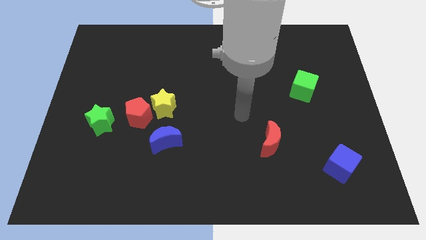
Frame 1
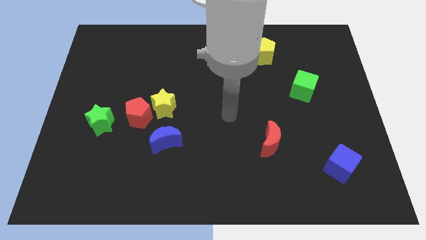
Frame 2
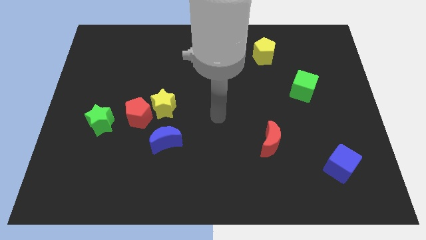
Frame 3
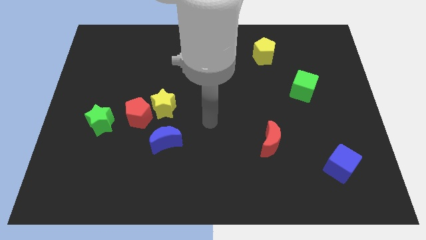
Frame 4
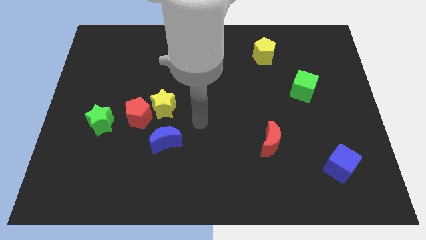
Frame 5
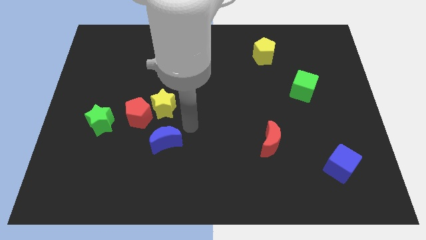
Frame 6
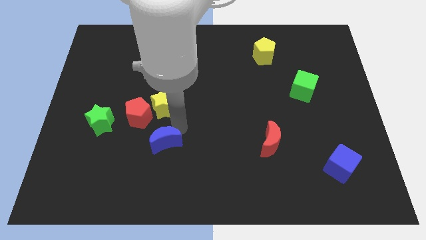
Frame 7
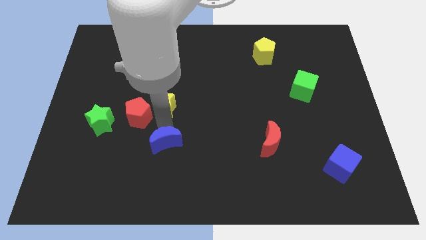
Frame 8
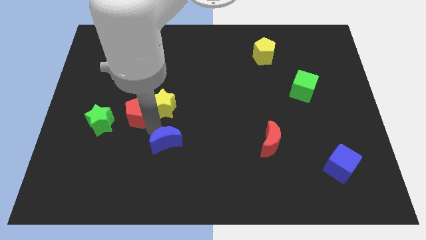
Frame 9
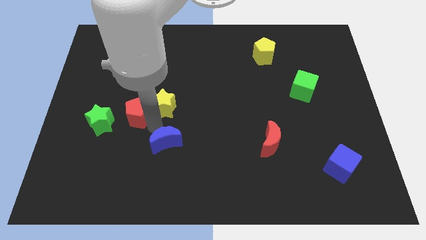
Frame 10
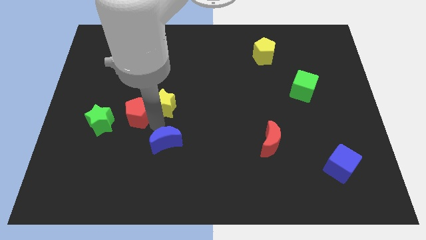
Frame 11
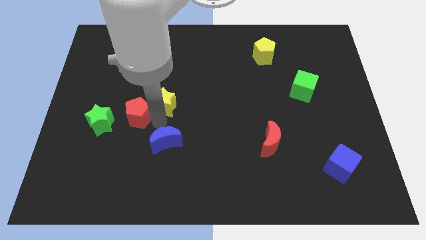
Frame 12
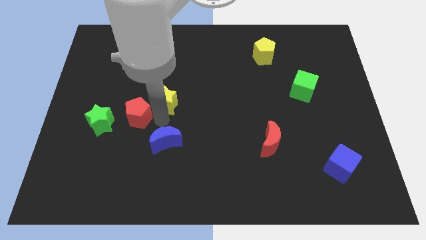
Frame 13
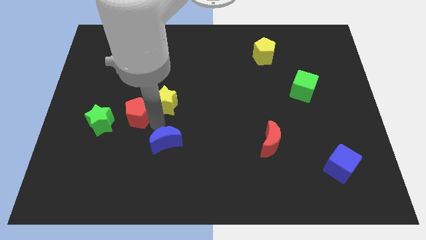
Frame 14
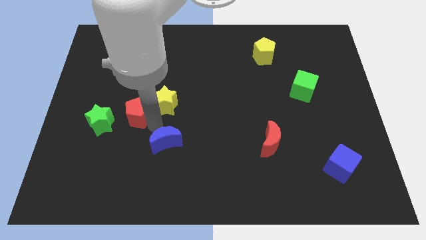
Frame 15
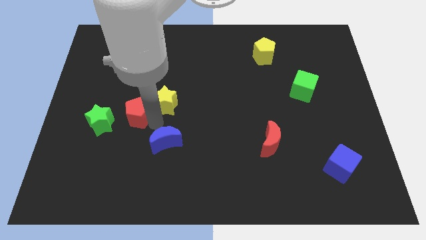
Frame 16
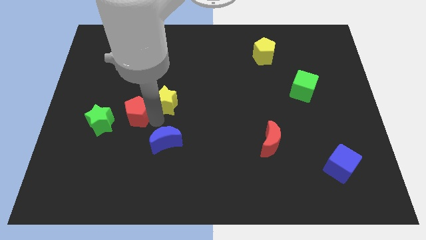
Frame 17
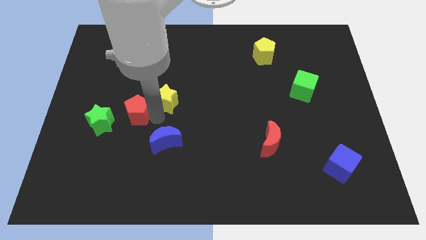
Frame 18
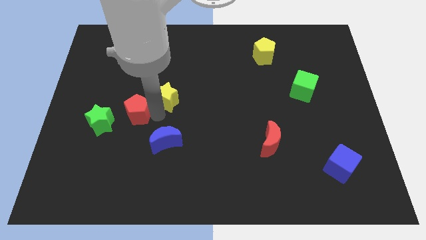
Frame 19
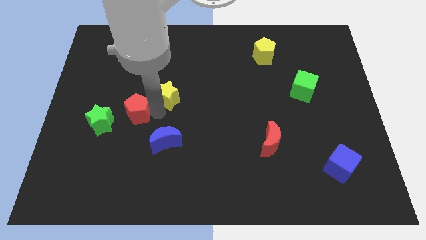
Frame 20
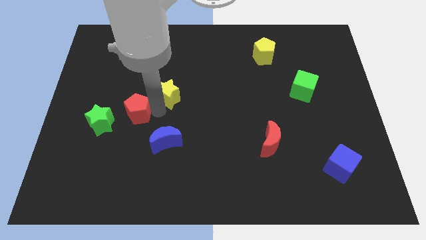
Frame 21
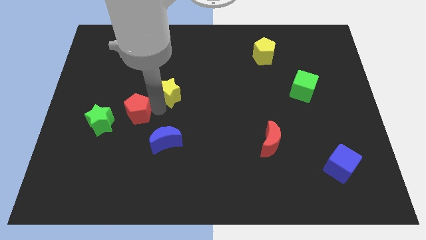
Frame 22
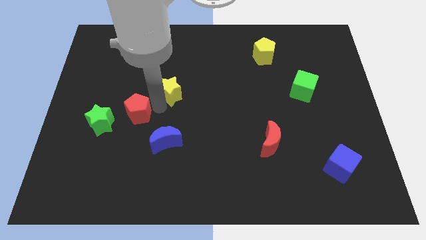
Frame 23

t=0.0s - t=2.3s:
move the yellow star away from the red pentagon and blue moon

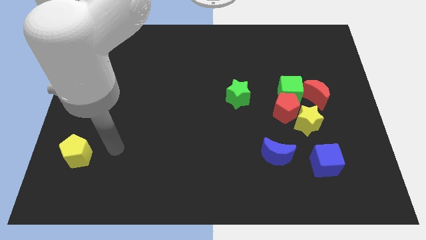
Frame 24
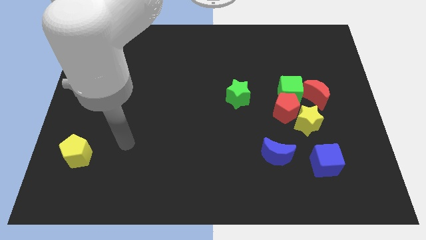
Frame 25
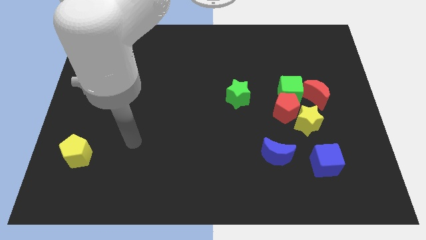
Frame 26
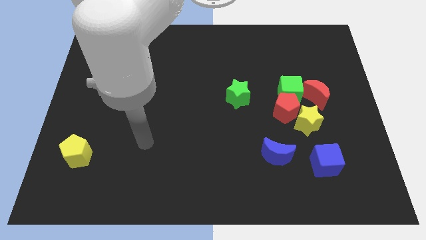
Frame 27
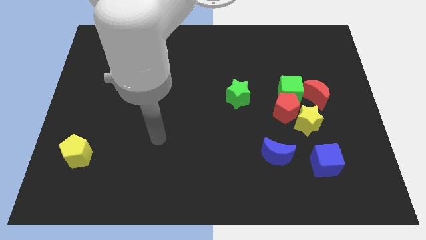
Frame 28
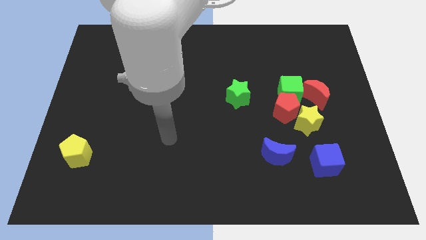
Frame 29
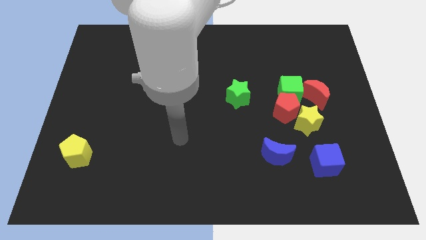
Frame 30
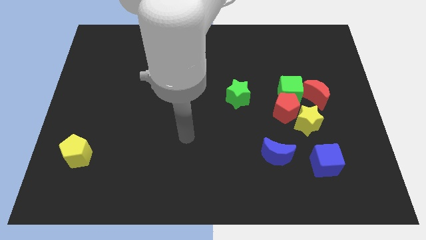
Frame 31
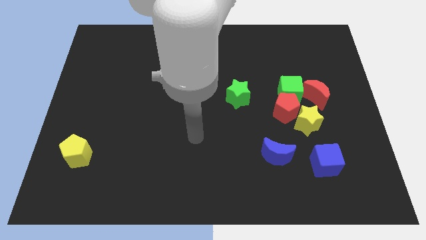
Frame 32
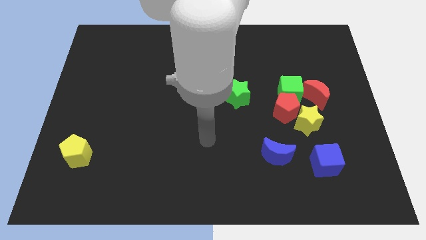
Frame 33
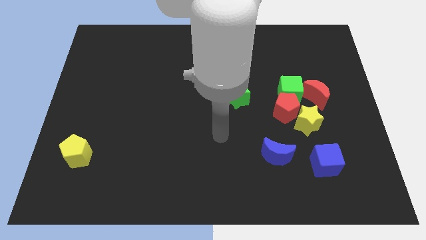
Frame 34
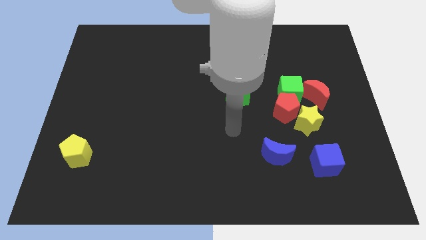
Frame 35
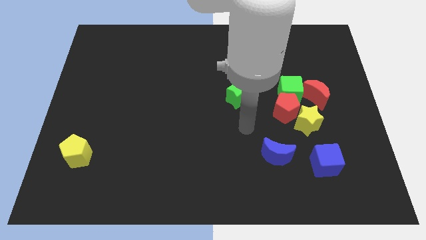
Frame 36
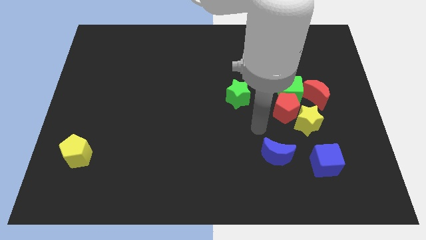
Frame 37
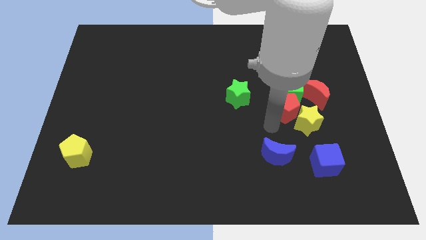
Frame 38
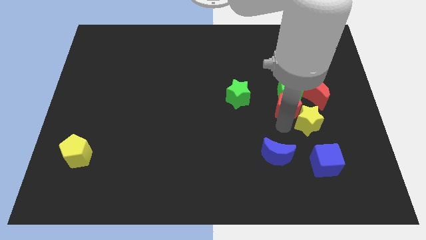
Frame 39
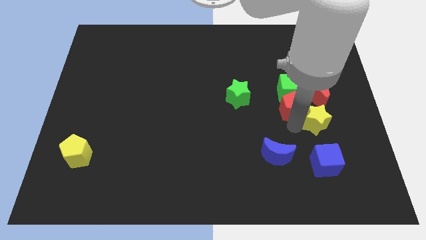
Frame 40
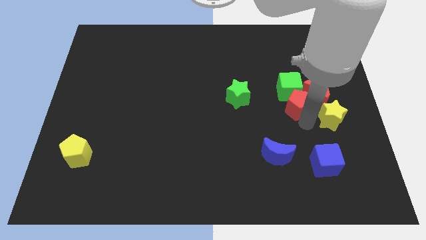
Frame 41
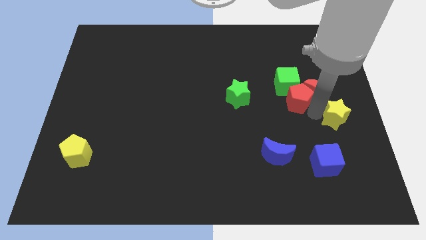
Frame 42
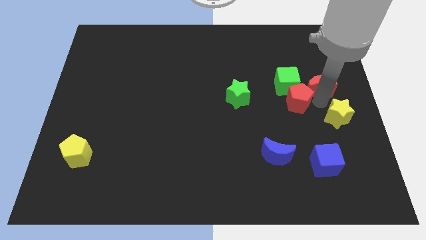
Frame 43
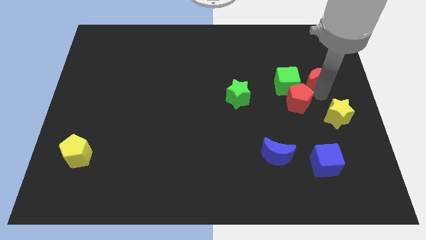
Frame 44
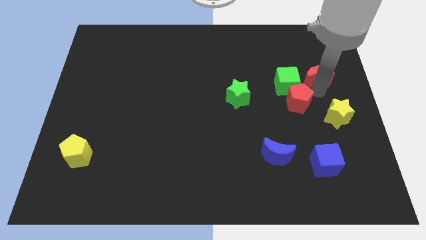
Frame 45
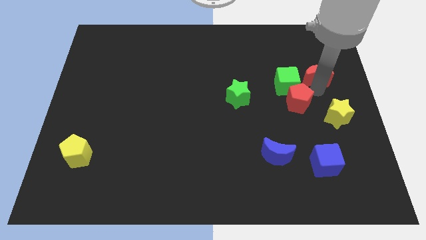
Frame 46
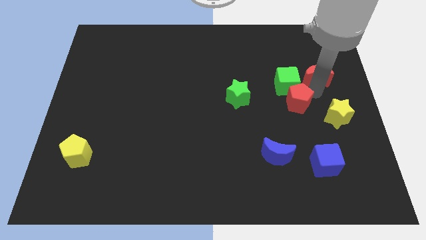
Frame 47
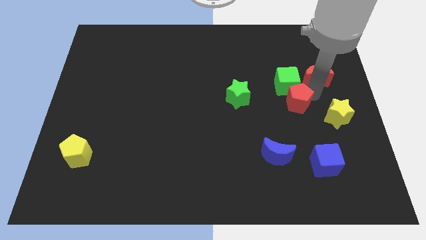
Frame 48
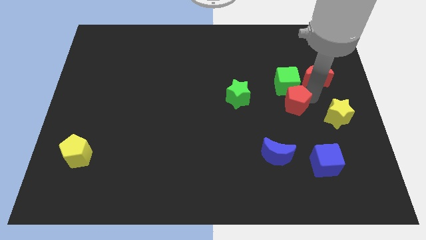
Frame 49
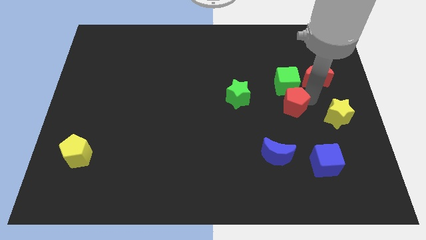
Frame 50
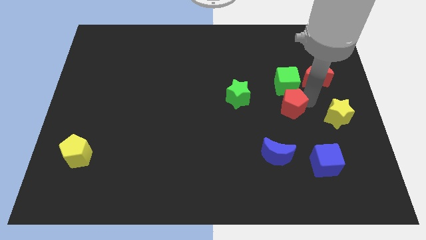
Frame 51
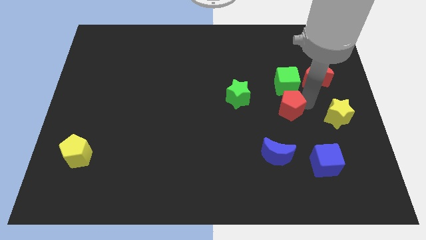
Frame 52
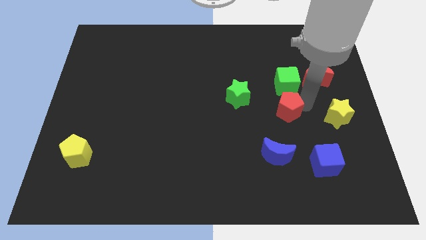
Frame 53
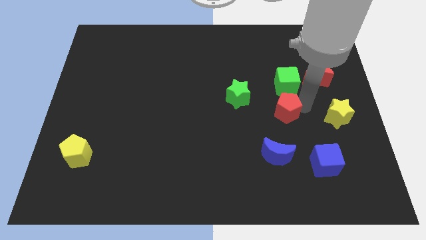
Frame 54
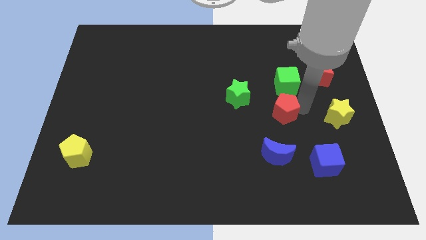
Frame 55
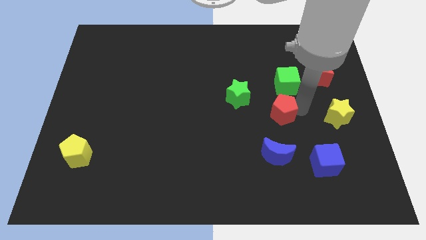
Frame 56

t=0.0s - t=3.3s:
separate the red pentagon from the green cube, yellow star, and red moon

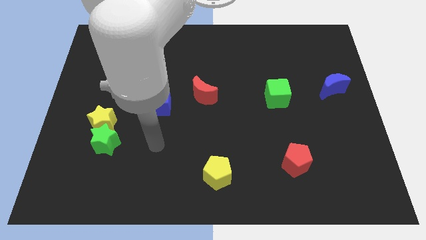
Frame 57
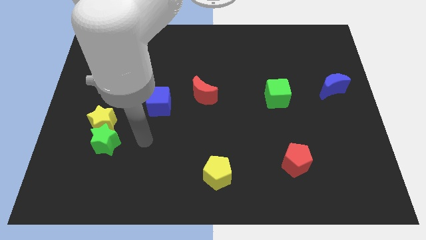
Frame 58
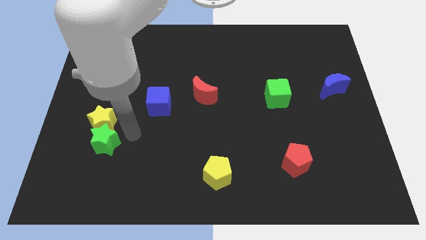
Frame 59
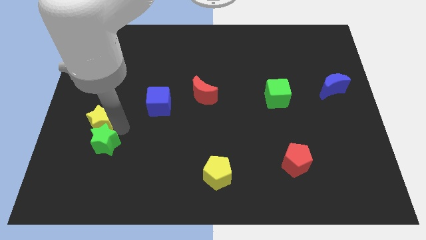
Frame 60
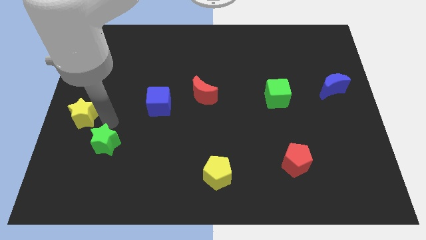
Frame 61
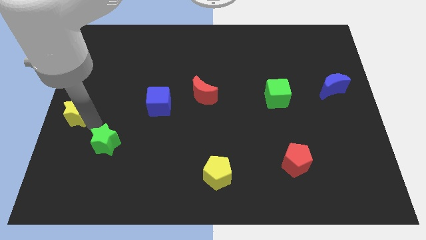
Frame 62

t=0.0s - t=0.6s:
pull the green star apart from the yellow star

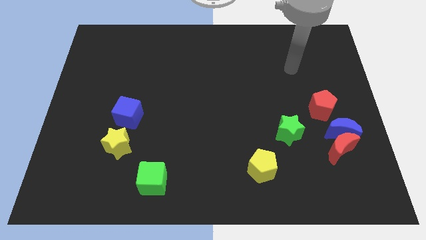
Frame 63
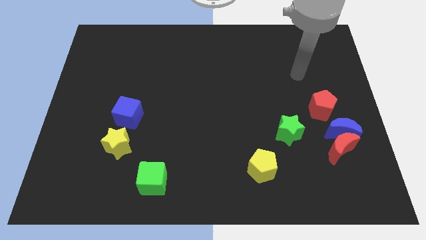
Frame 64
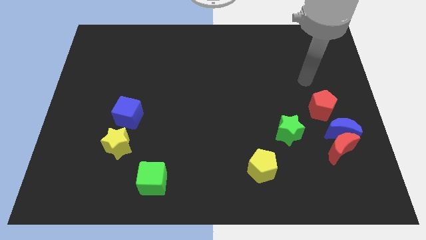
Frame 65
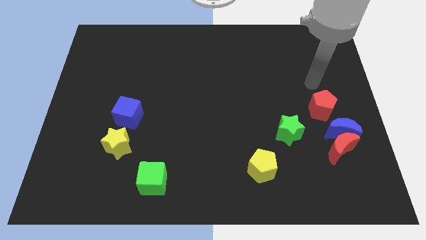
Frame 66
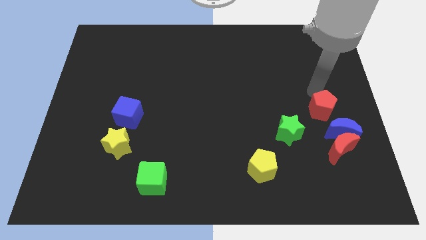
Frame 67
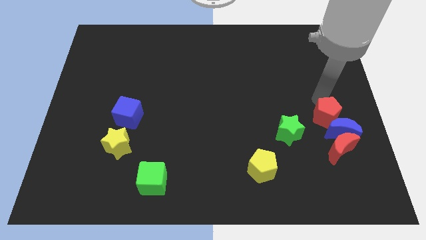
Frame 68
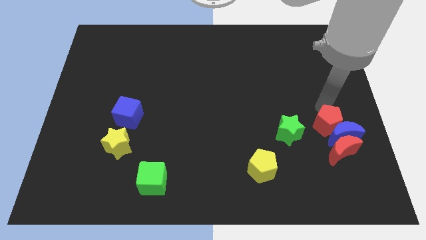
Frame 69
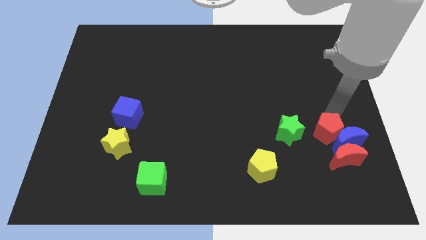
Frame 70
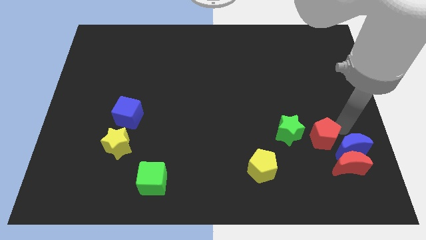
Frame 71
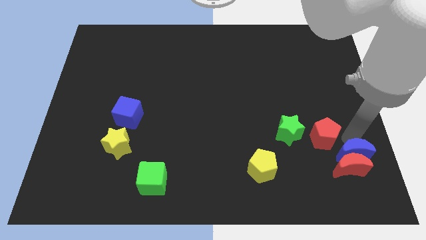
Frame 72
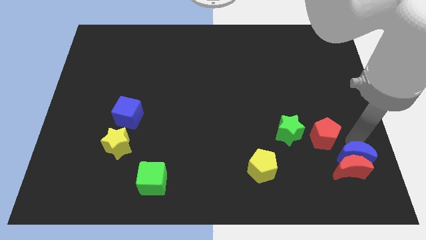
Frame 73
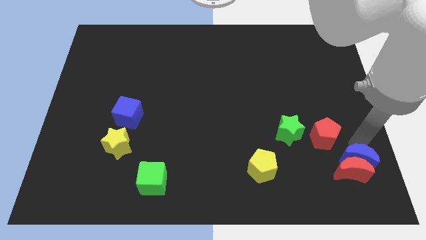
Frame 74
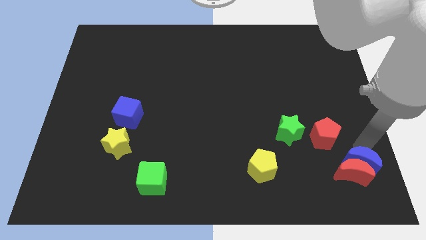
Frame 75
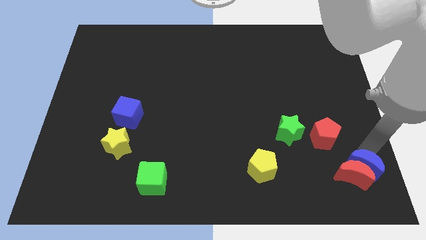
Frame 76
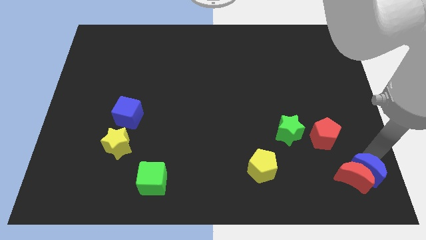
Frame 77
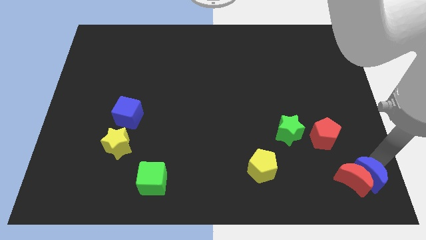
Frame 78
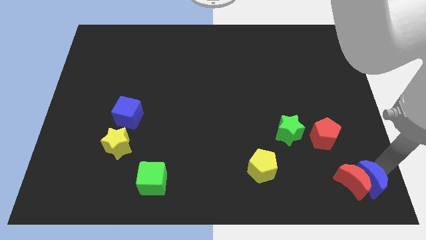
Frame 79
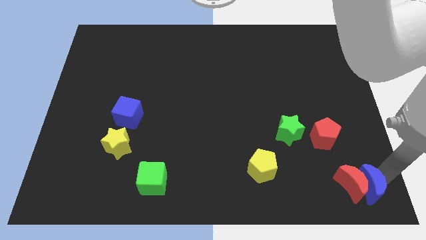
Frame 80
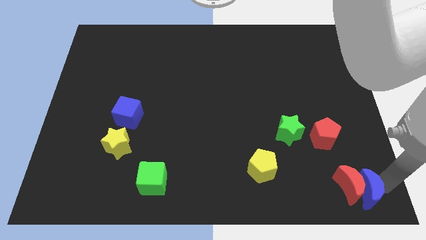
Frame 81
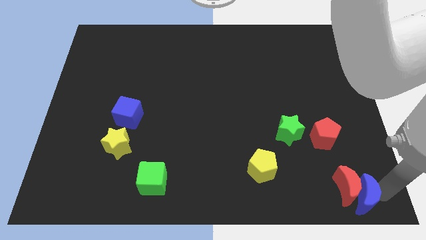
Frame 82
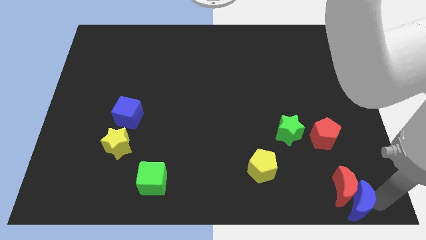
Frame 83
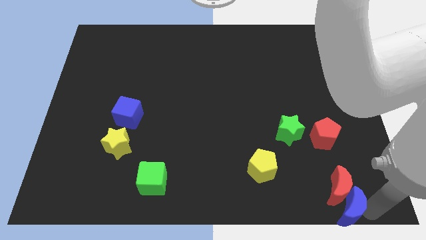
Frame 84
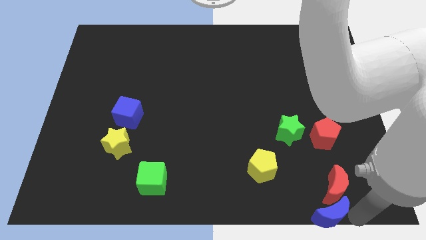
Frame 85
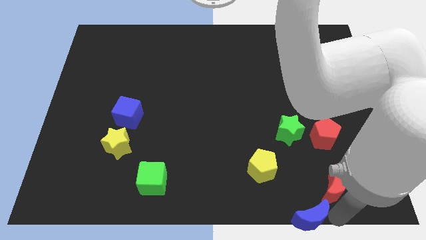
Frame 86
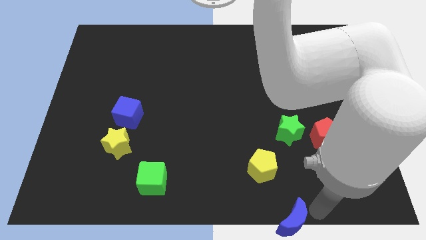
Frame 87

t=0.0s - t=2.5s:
pull the red moon apart from the blue moon

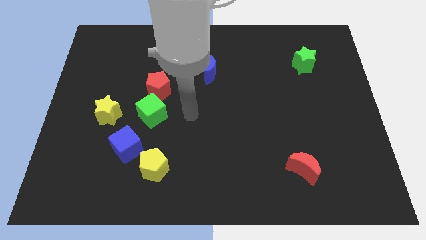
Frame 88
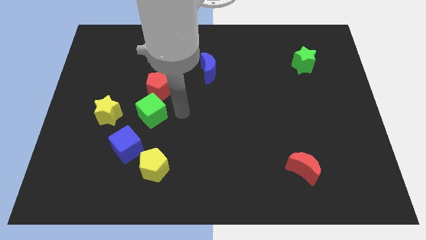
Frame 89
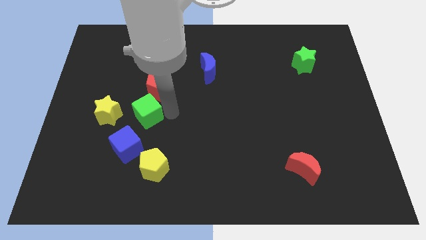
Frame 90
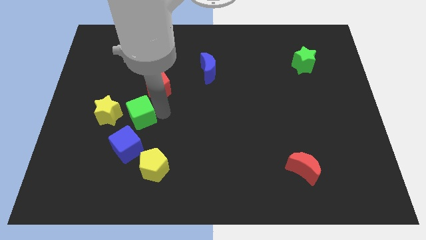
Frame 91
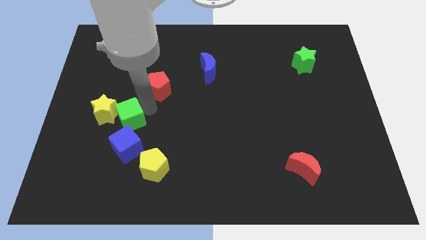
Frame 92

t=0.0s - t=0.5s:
pull the red pentagon apart from the green cube

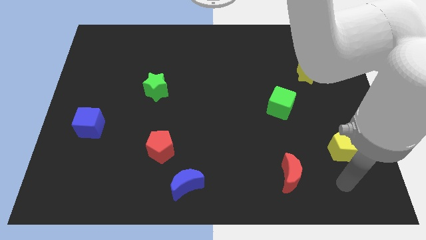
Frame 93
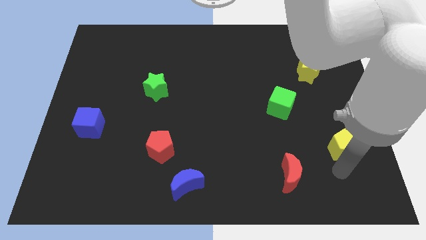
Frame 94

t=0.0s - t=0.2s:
move the red pentagon away from the blue moon
